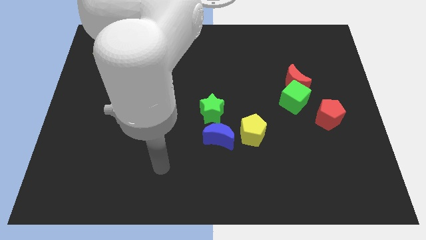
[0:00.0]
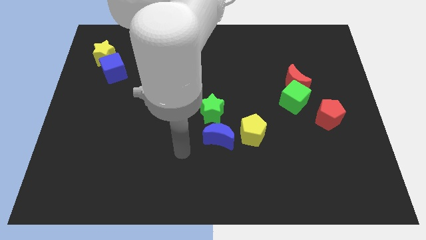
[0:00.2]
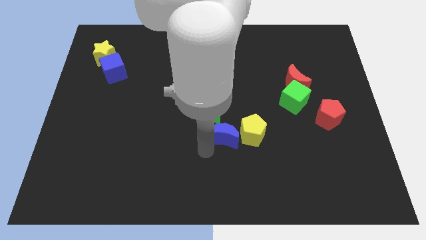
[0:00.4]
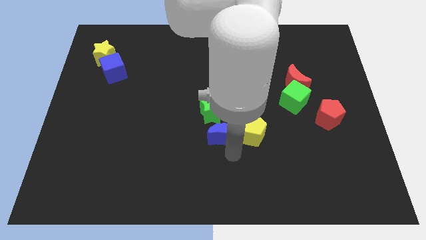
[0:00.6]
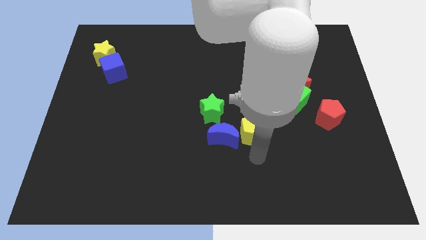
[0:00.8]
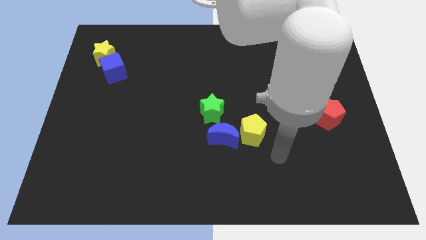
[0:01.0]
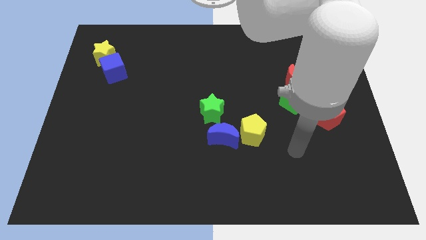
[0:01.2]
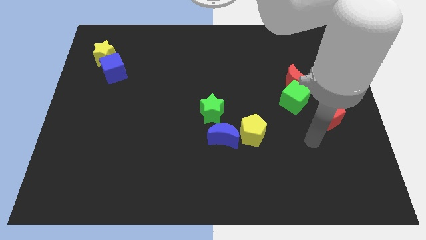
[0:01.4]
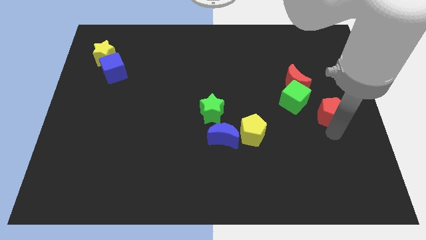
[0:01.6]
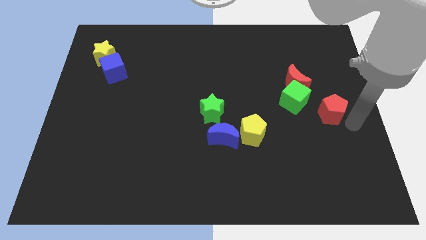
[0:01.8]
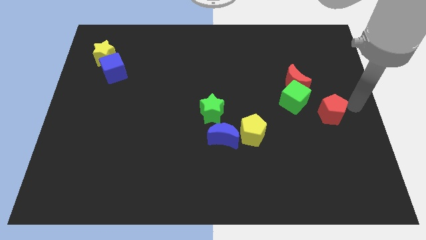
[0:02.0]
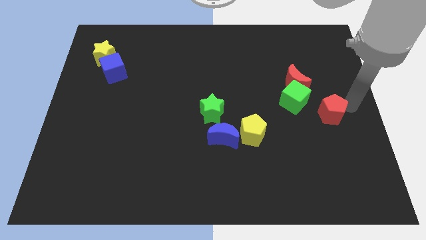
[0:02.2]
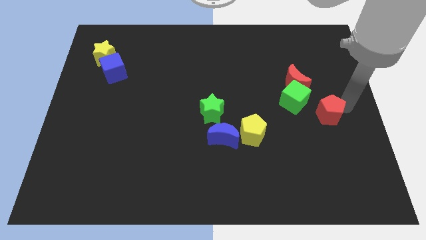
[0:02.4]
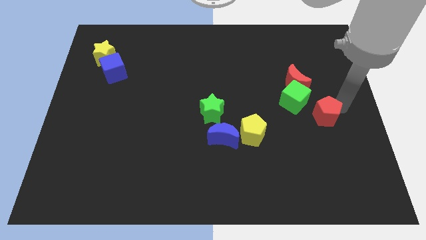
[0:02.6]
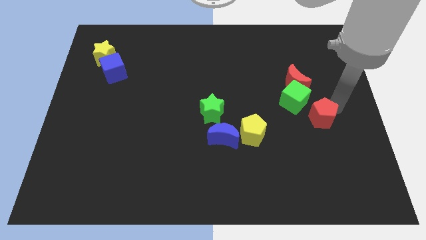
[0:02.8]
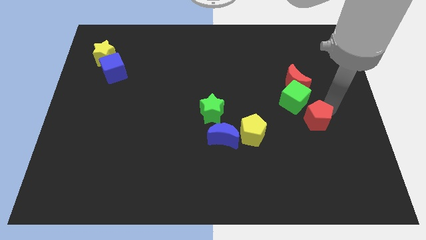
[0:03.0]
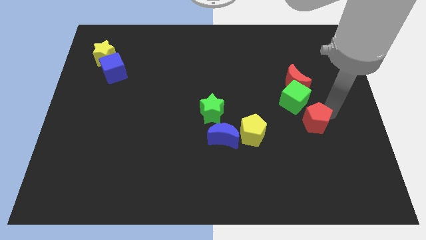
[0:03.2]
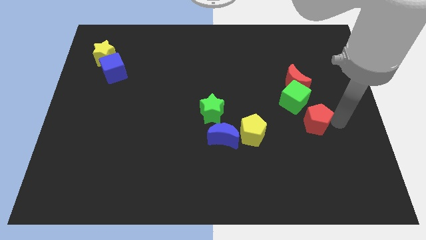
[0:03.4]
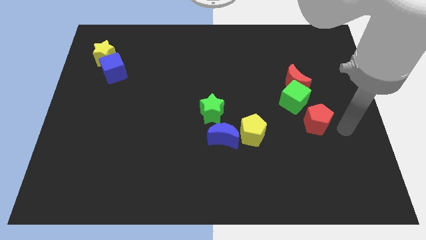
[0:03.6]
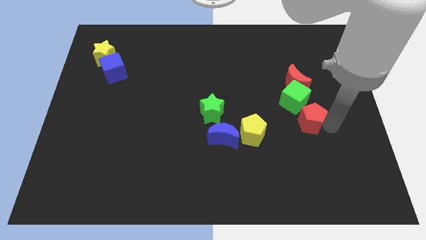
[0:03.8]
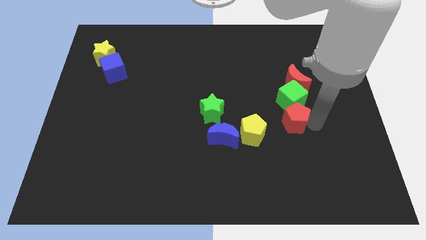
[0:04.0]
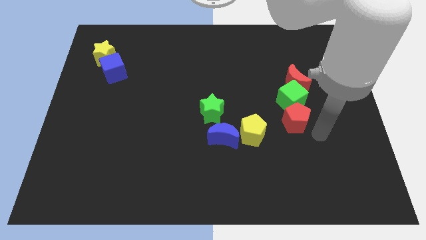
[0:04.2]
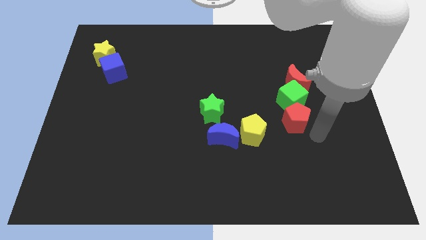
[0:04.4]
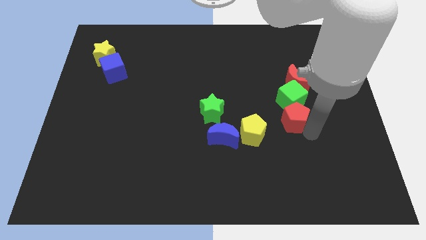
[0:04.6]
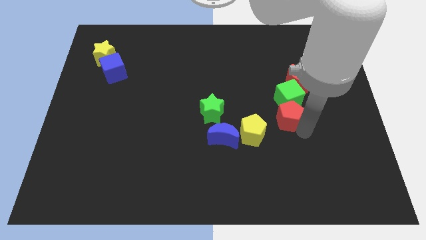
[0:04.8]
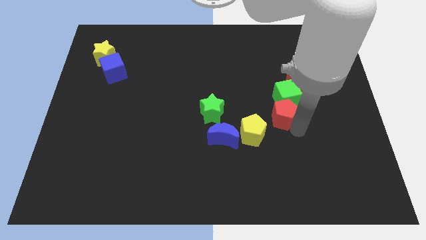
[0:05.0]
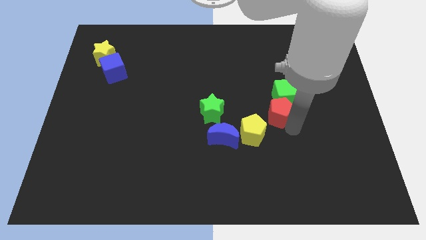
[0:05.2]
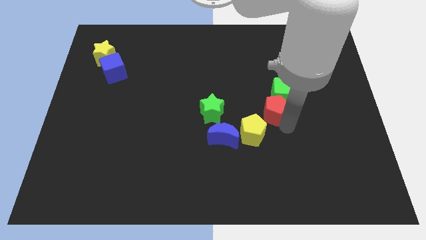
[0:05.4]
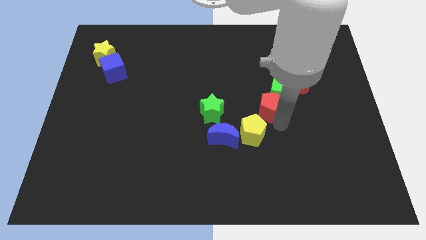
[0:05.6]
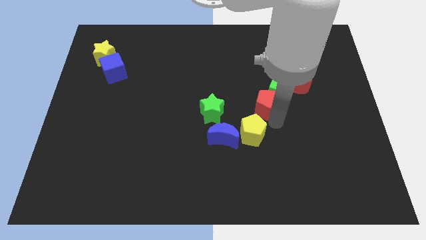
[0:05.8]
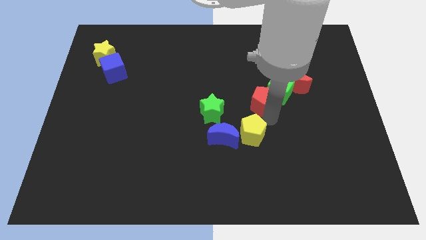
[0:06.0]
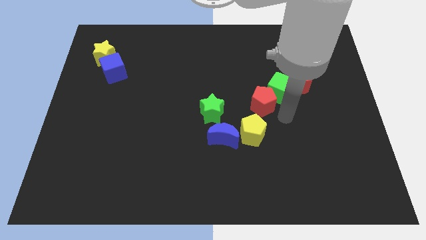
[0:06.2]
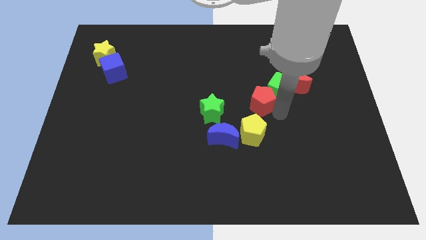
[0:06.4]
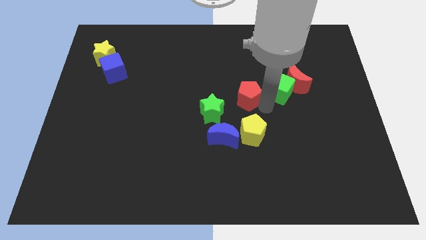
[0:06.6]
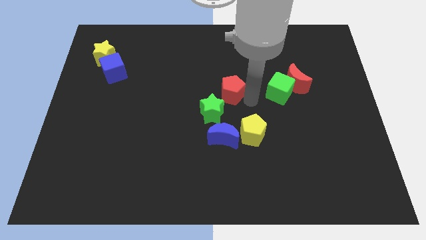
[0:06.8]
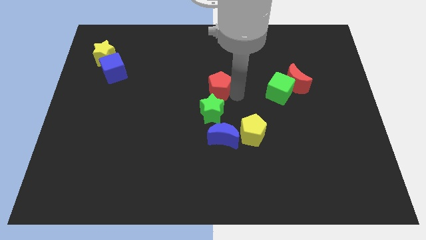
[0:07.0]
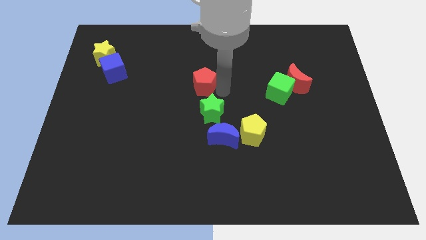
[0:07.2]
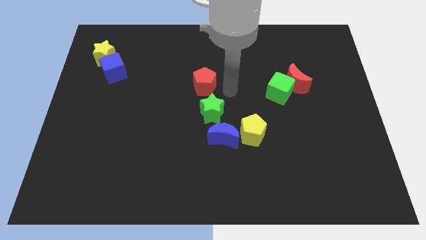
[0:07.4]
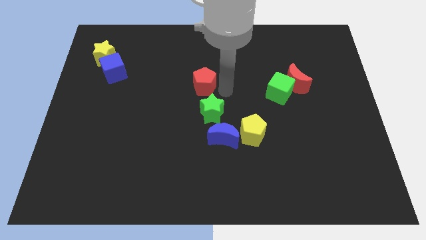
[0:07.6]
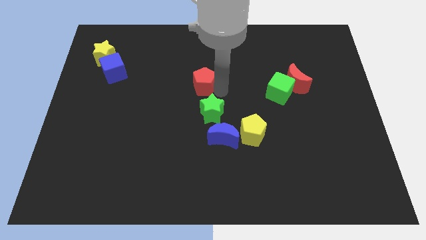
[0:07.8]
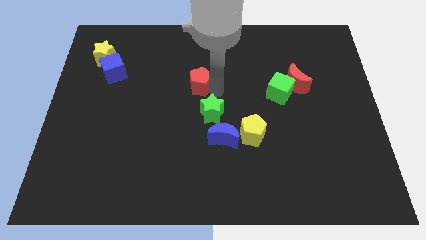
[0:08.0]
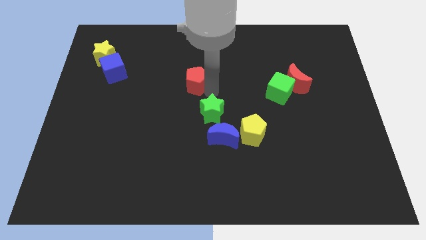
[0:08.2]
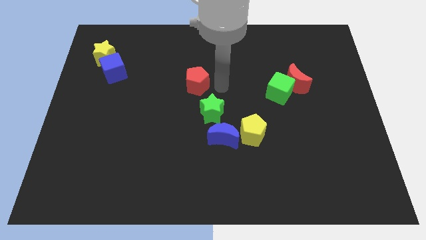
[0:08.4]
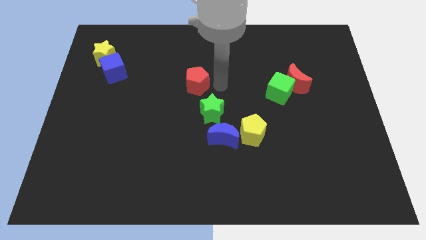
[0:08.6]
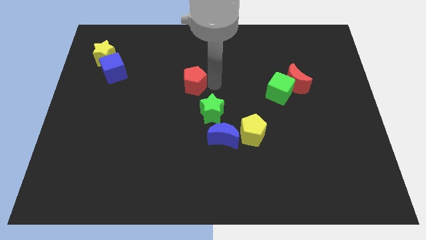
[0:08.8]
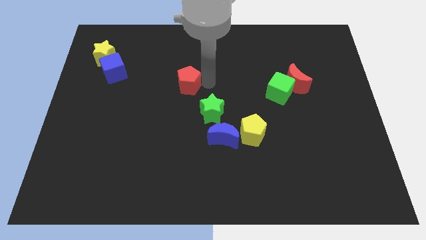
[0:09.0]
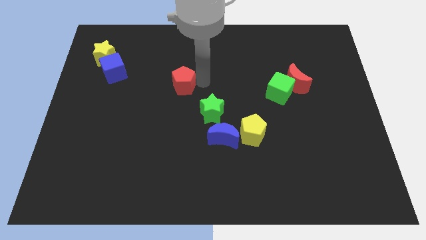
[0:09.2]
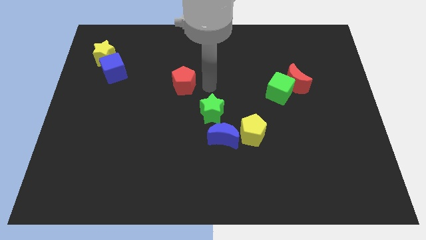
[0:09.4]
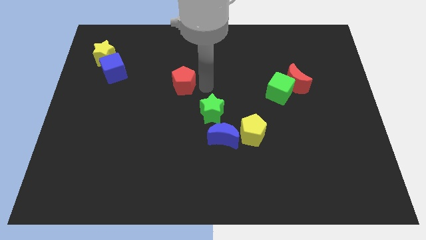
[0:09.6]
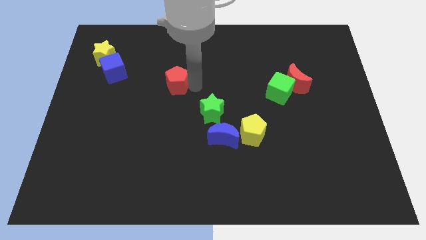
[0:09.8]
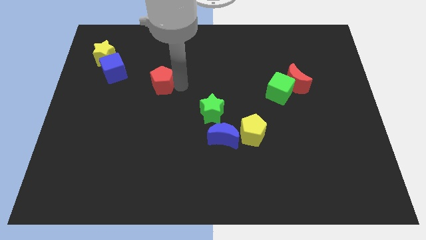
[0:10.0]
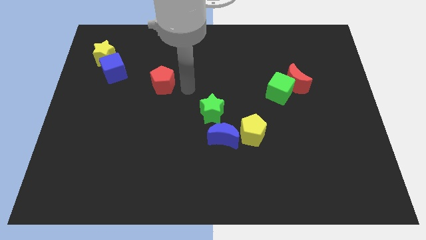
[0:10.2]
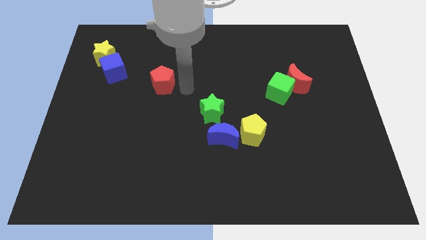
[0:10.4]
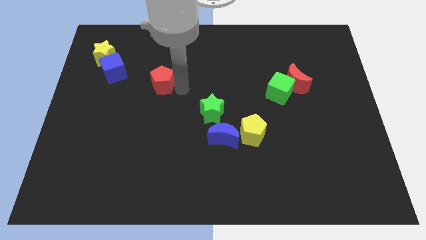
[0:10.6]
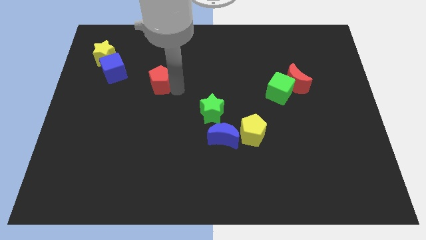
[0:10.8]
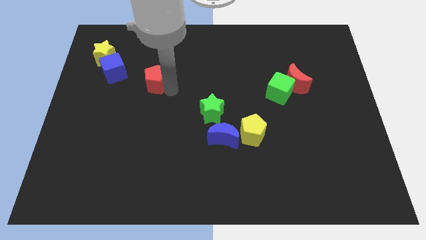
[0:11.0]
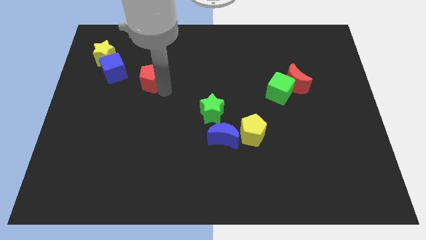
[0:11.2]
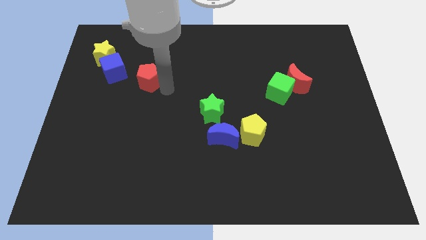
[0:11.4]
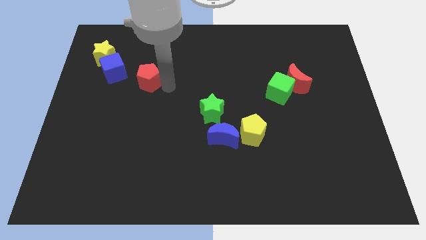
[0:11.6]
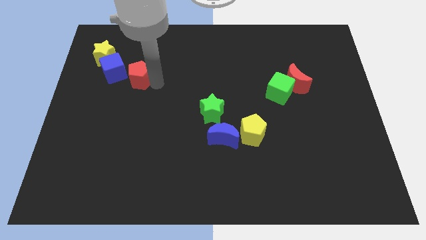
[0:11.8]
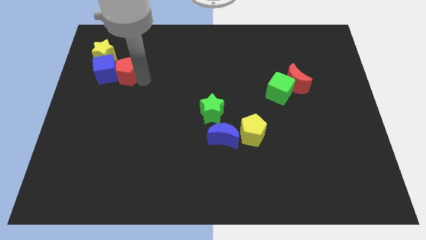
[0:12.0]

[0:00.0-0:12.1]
push the red pentagon close to the blue cube

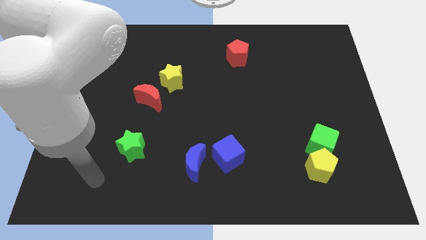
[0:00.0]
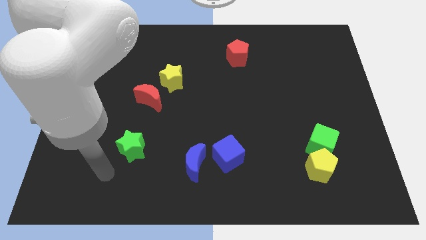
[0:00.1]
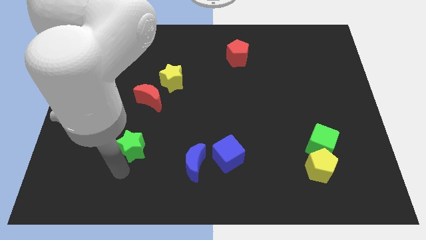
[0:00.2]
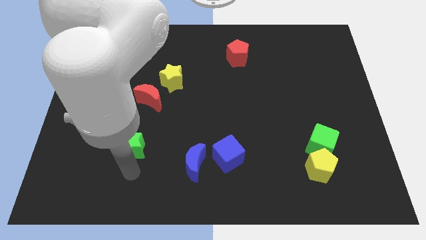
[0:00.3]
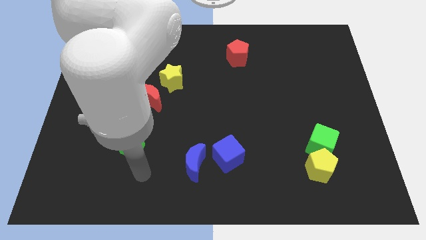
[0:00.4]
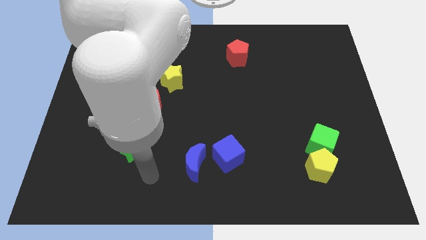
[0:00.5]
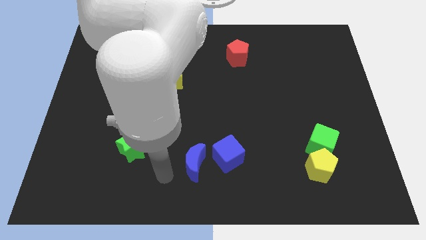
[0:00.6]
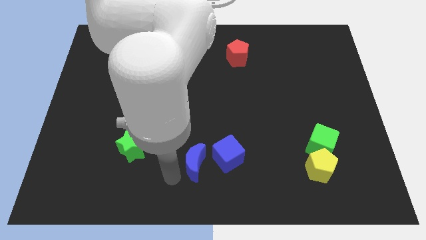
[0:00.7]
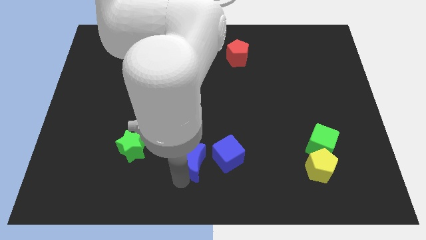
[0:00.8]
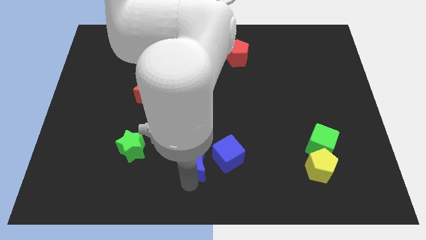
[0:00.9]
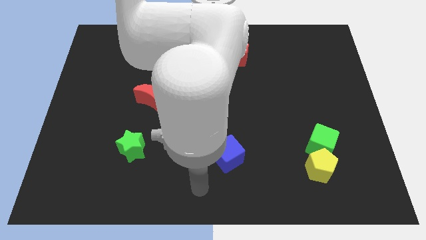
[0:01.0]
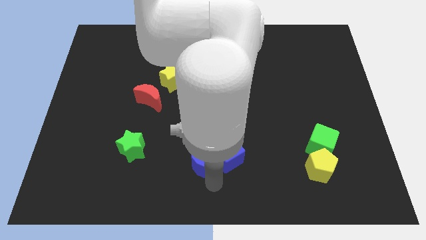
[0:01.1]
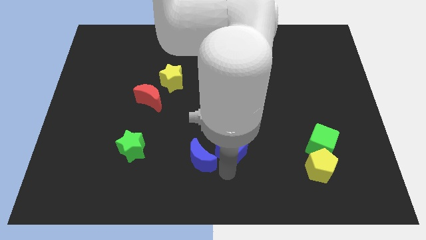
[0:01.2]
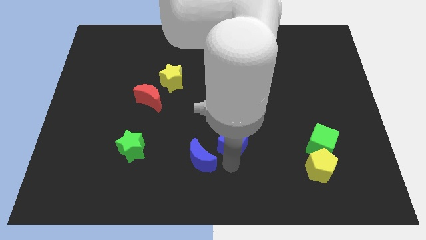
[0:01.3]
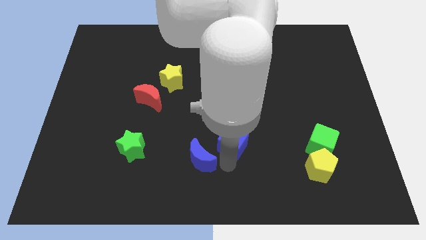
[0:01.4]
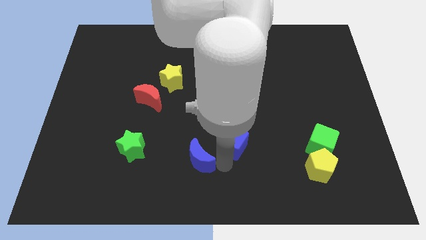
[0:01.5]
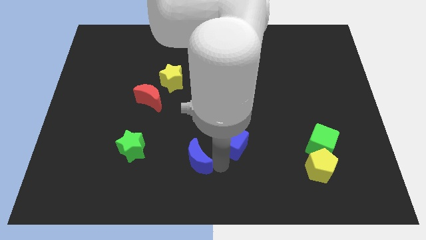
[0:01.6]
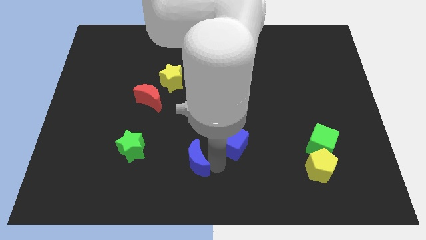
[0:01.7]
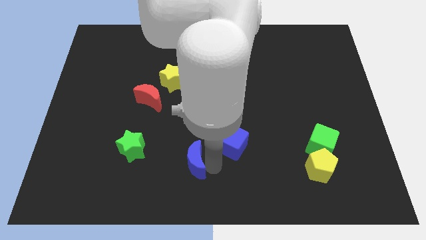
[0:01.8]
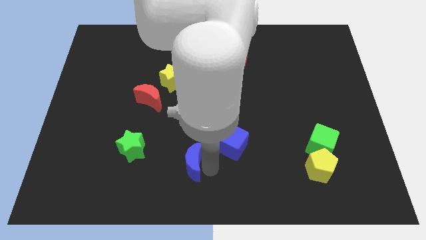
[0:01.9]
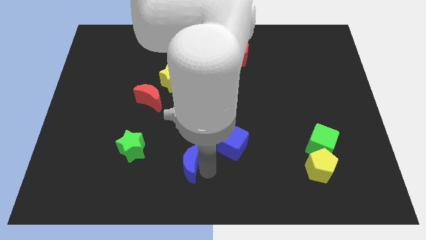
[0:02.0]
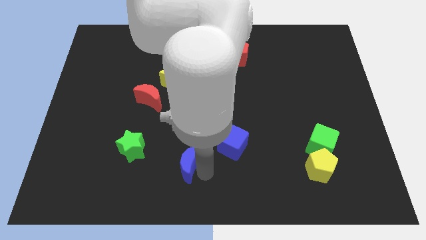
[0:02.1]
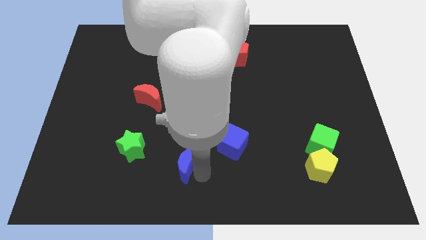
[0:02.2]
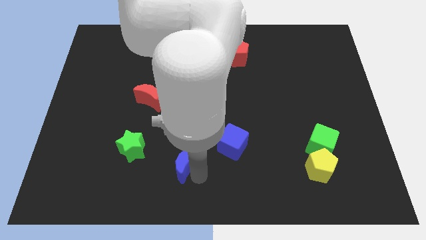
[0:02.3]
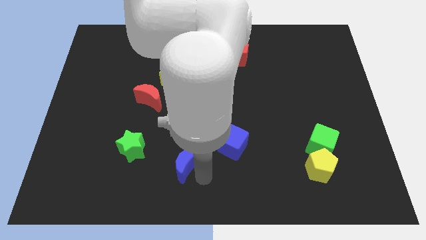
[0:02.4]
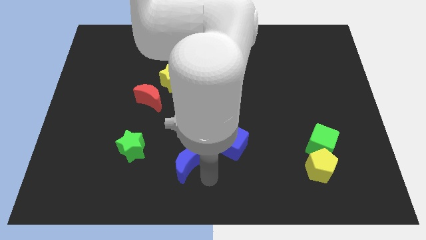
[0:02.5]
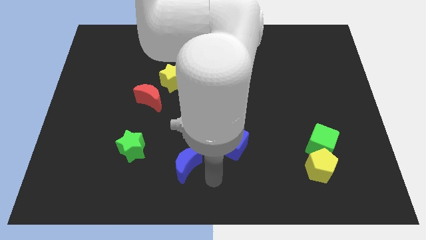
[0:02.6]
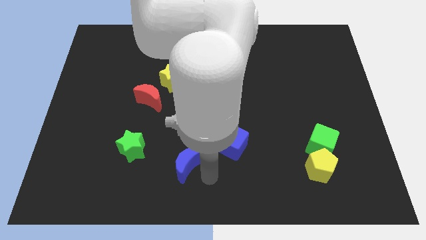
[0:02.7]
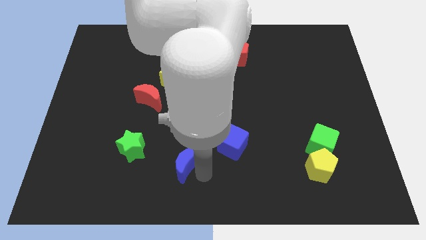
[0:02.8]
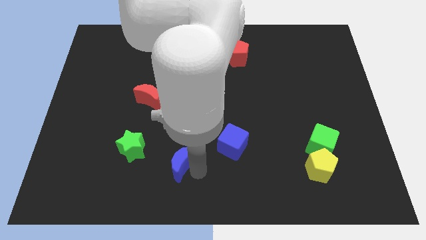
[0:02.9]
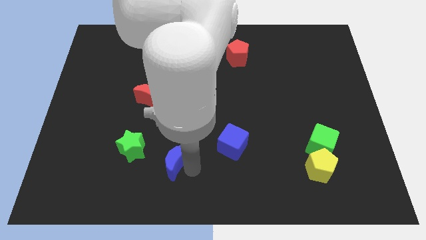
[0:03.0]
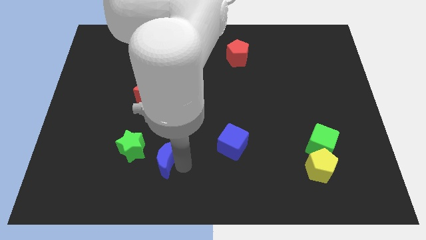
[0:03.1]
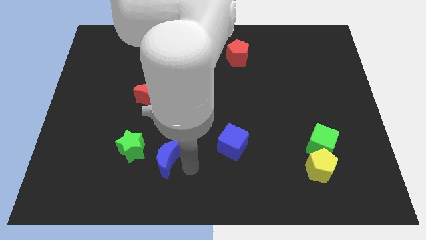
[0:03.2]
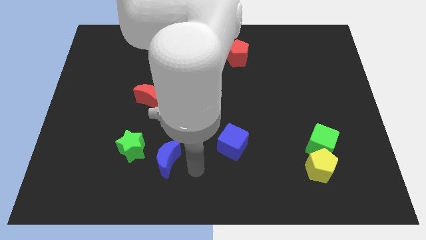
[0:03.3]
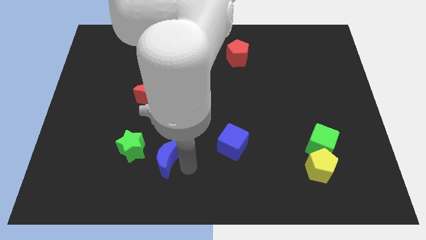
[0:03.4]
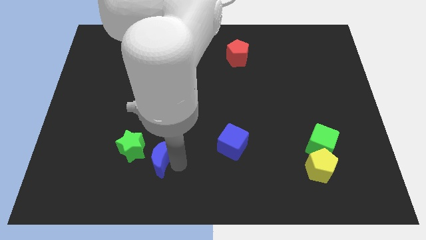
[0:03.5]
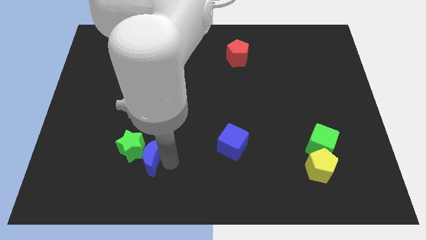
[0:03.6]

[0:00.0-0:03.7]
push the blue moon to the green star
